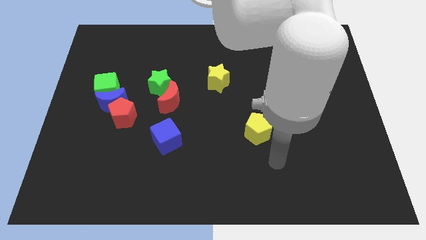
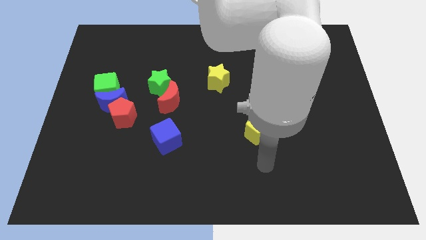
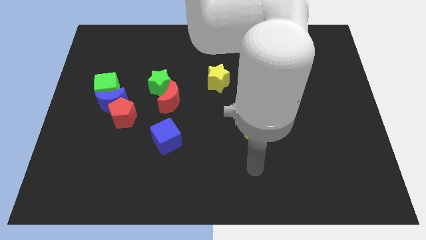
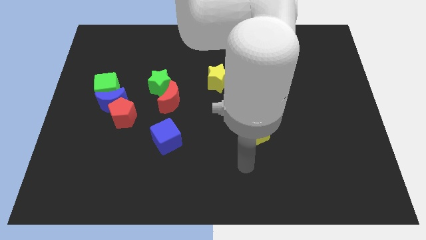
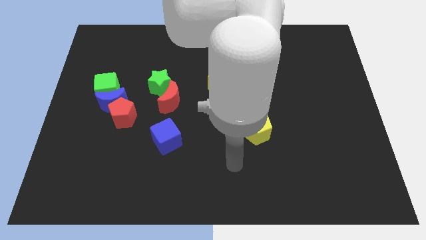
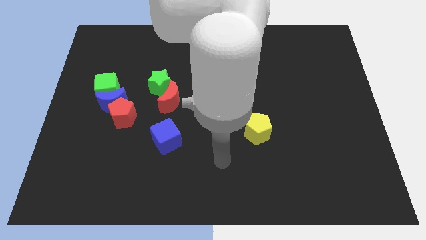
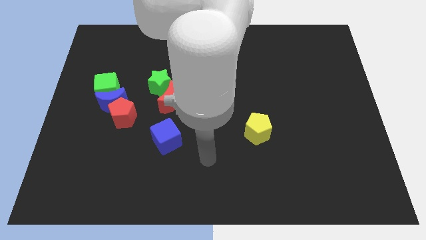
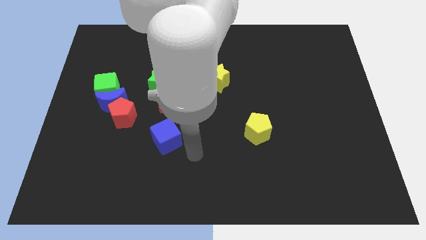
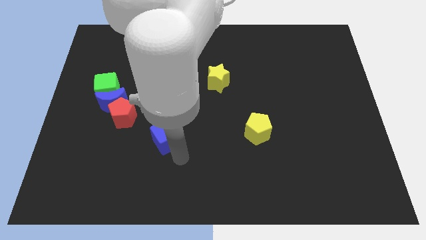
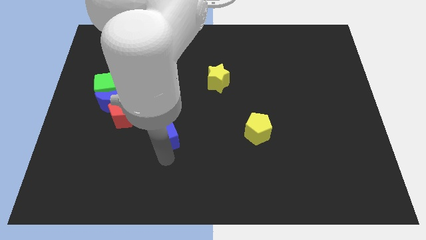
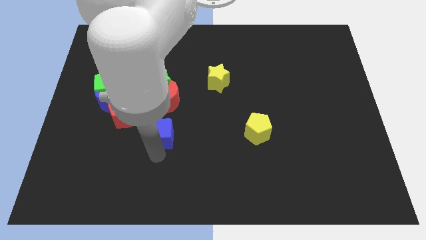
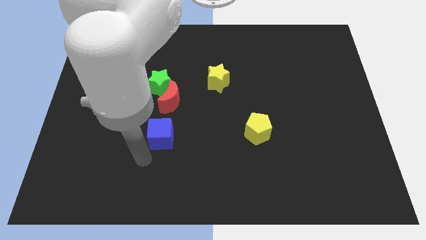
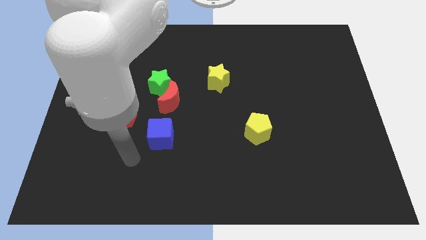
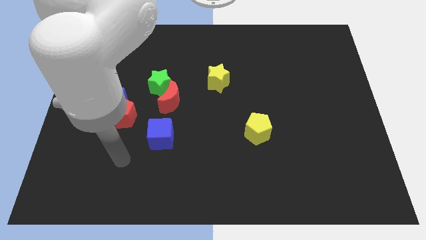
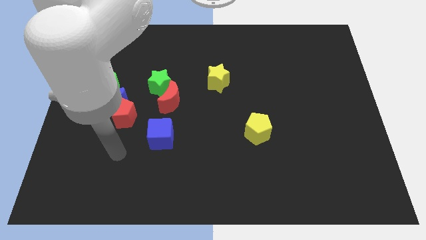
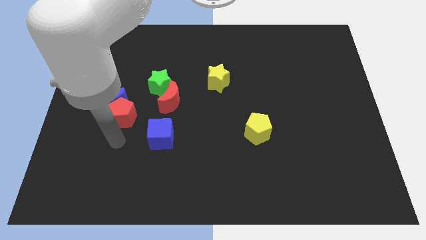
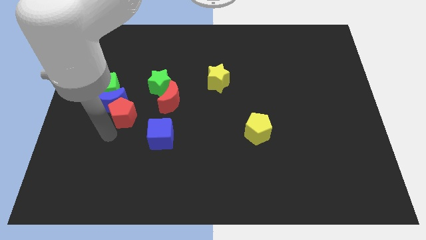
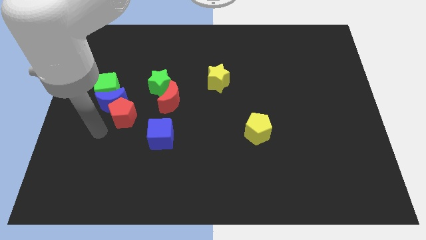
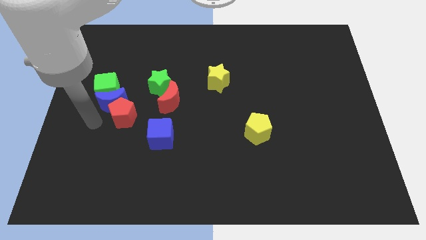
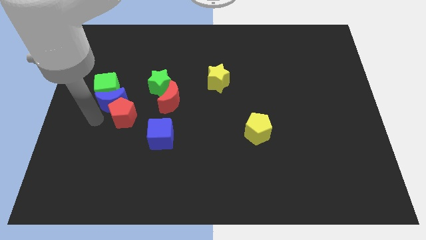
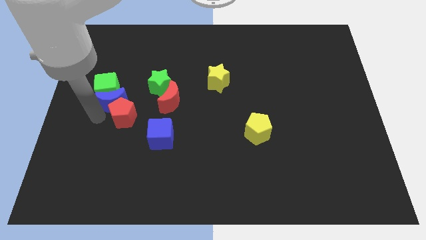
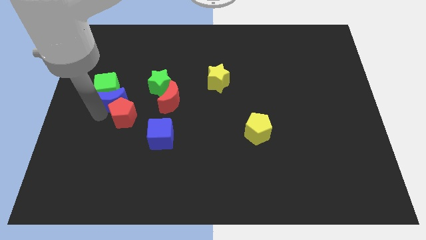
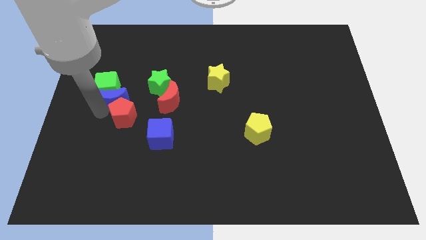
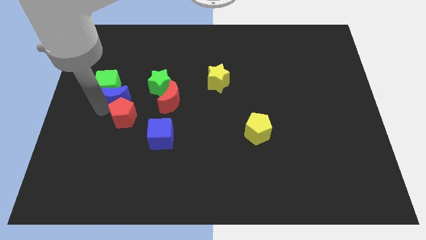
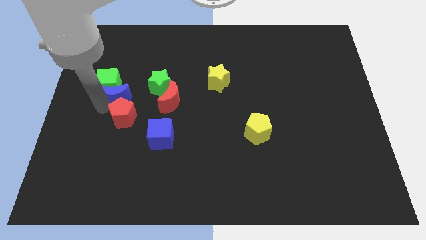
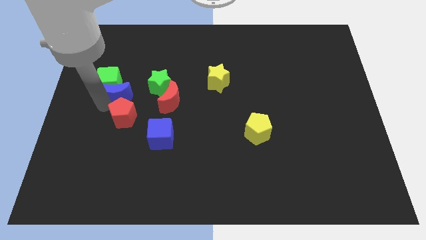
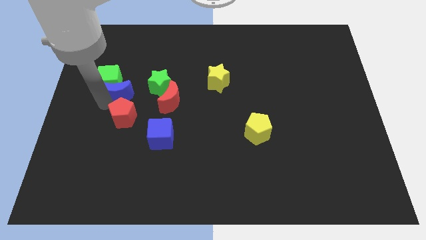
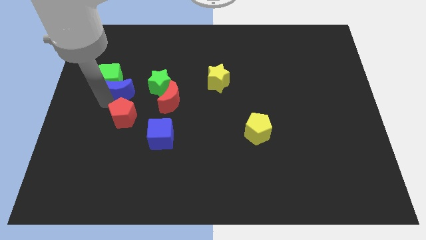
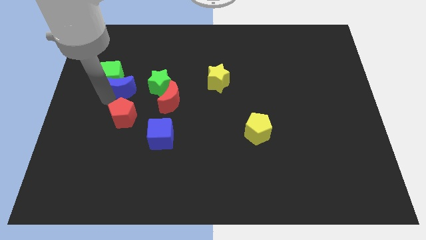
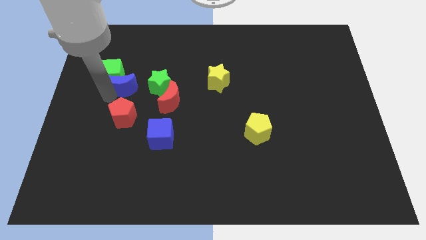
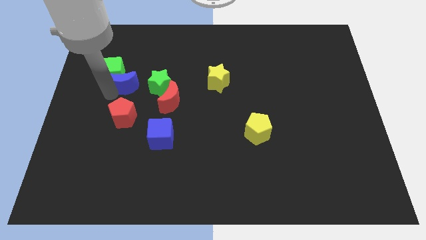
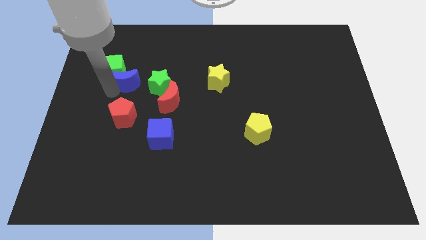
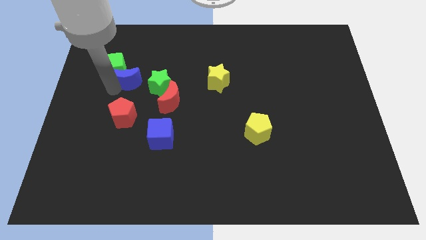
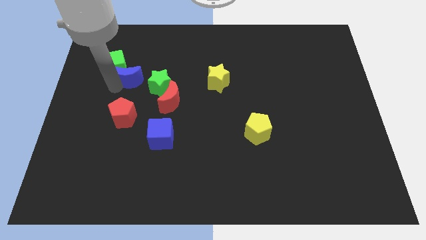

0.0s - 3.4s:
move the blue moon slightly upwards and then to the right

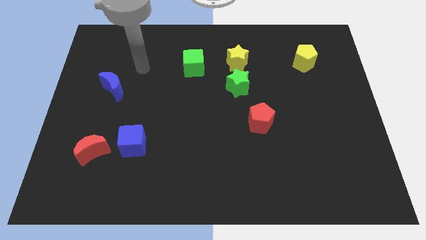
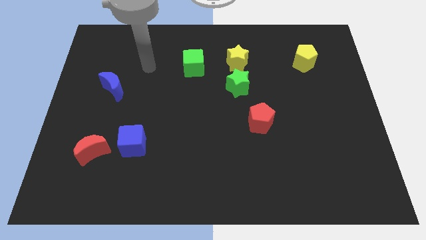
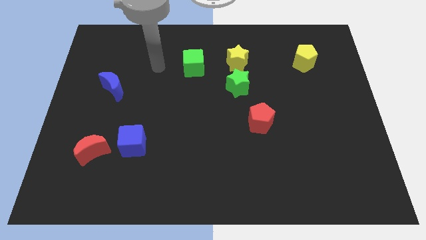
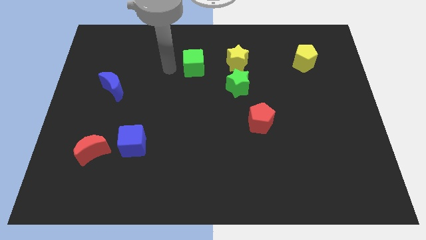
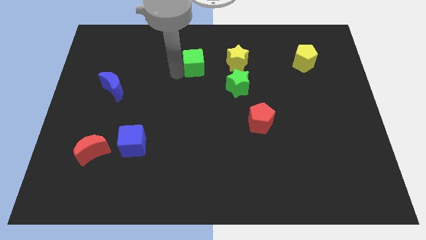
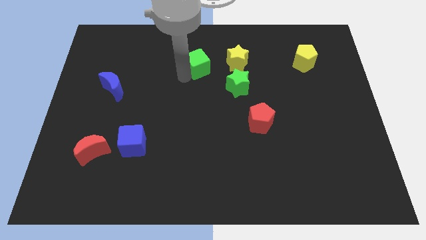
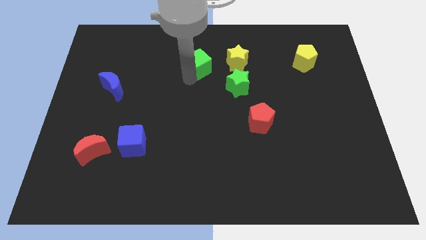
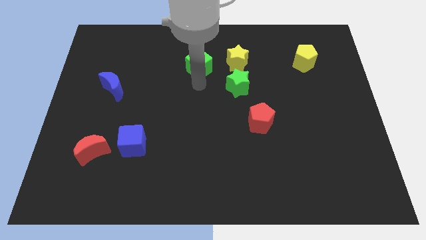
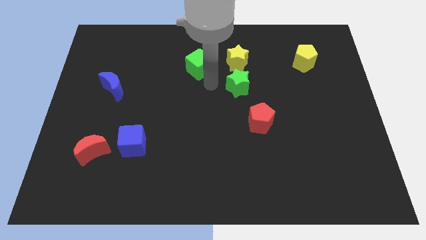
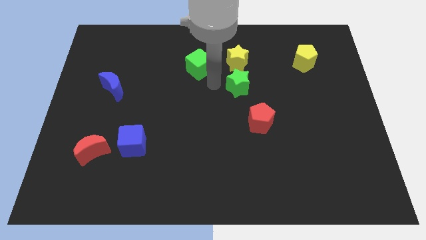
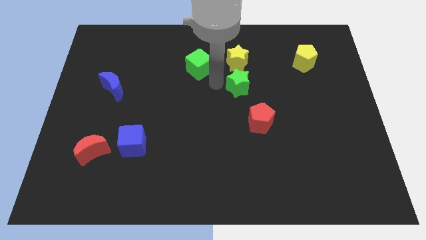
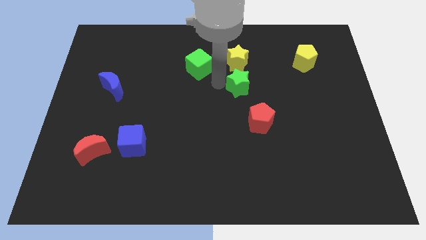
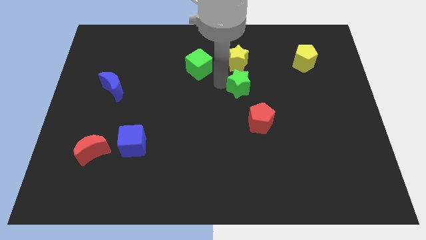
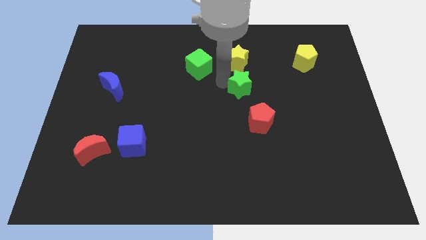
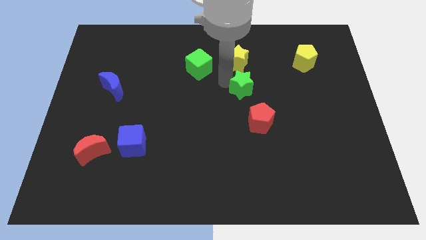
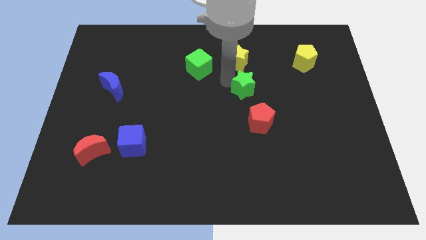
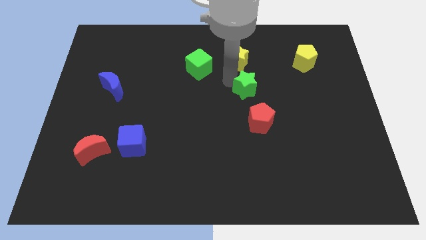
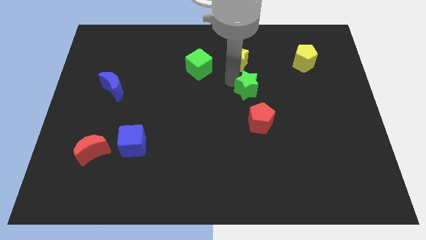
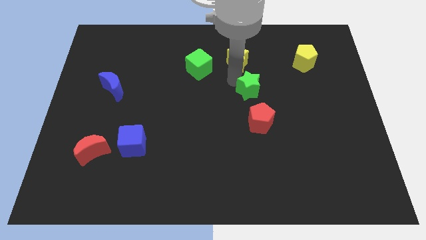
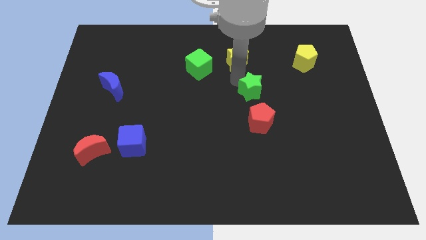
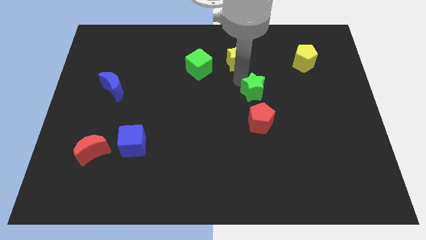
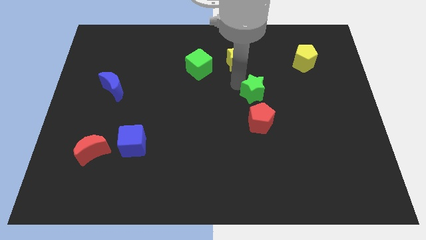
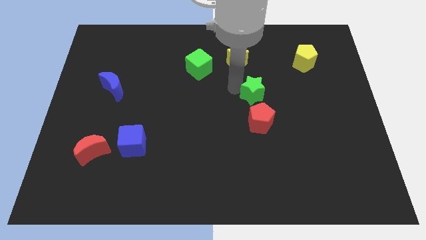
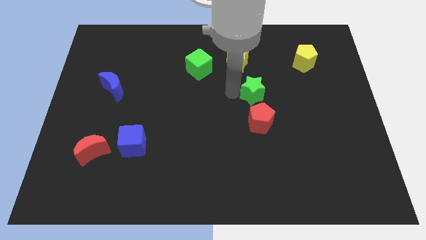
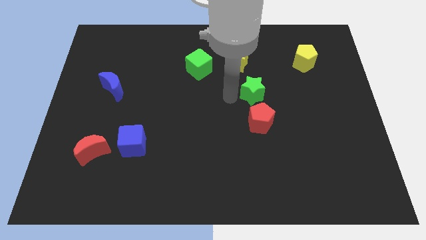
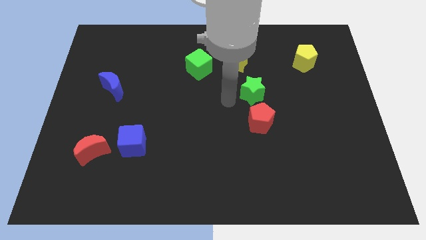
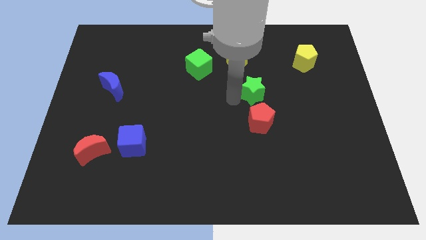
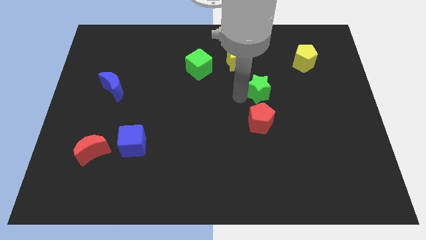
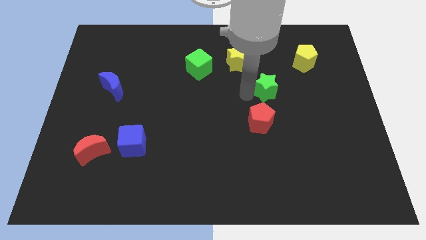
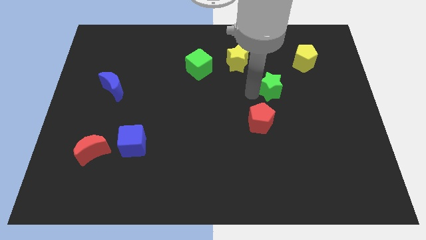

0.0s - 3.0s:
slightly slide the green star to the right

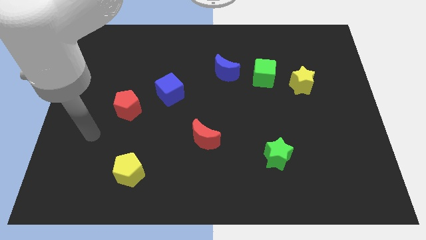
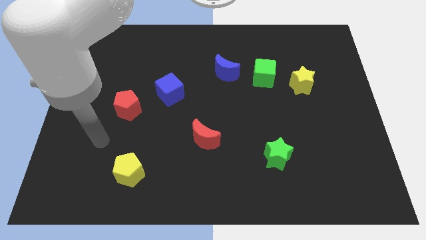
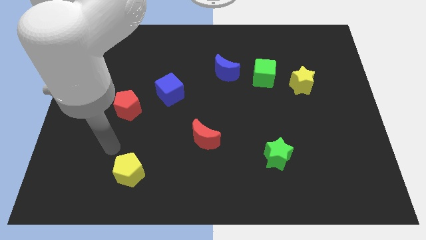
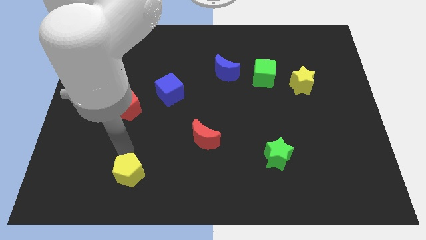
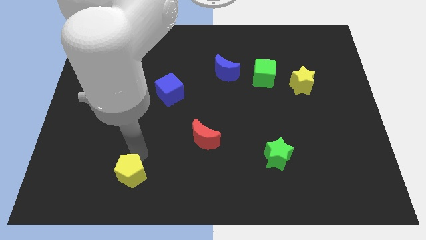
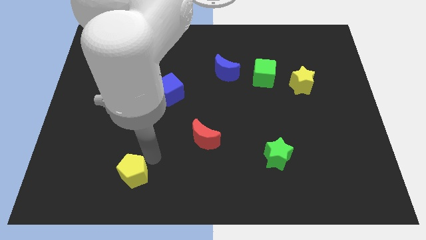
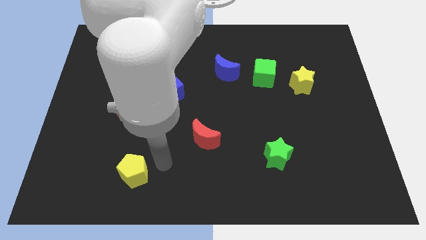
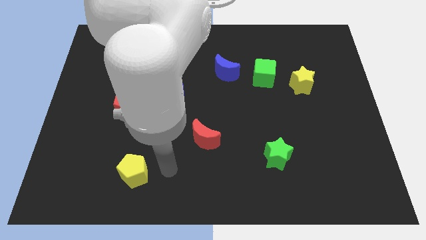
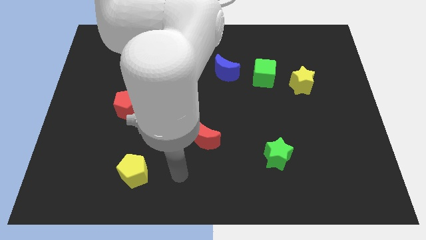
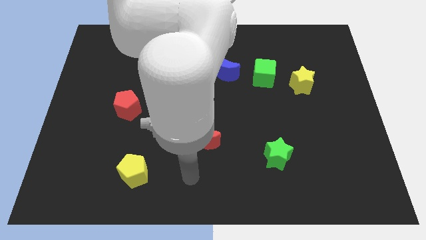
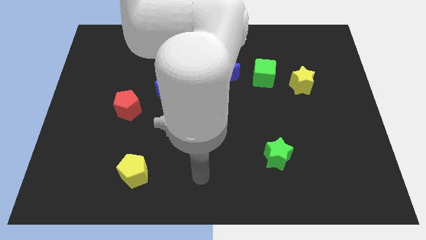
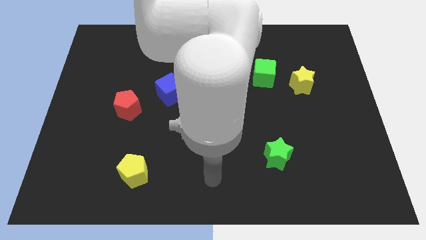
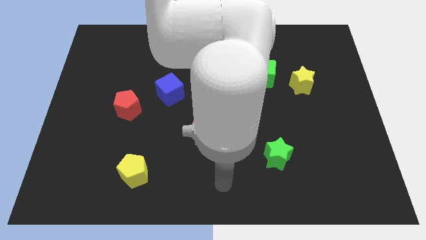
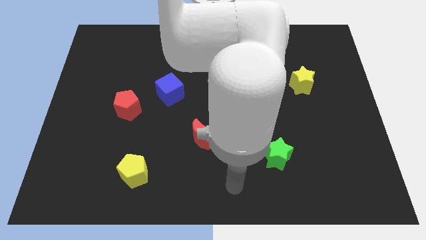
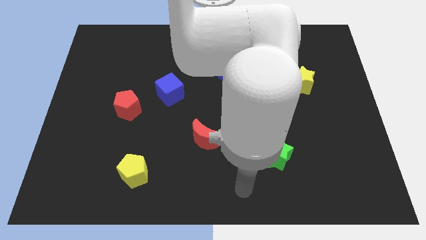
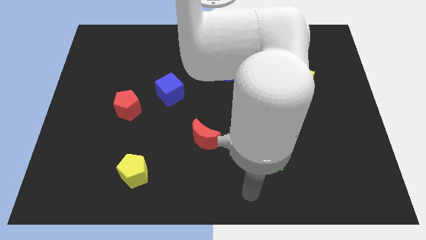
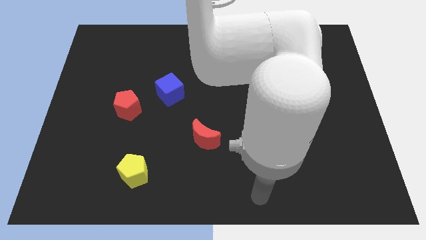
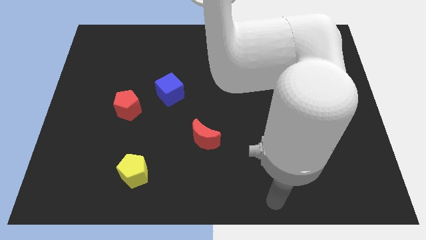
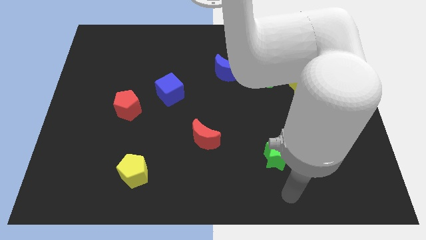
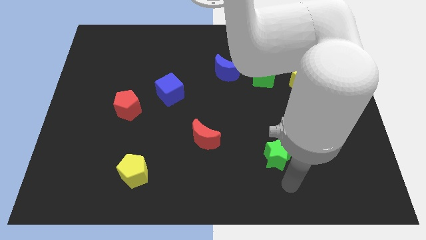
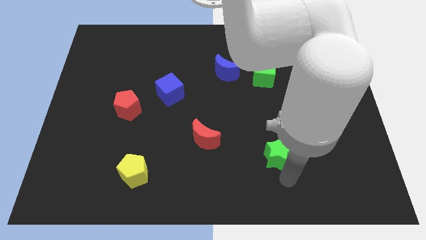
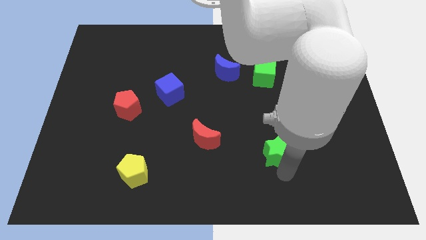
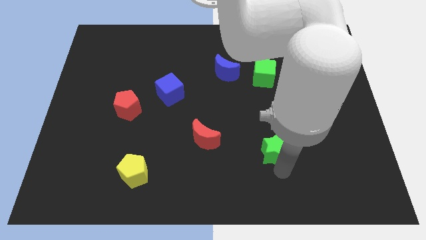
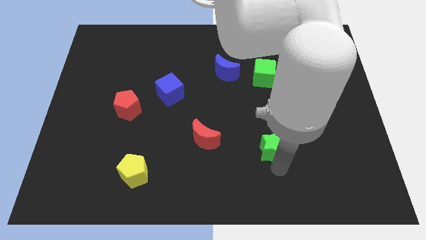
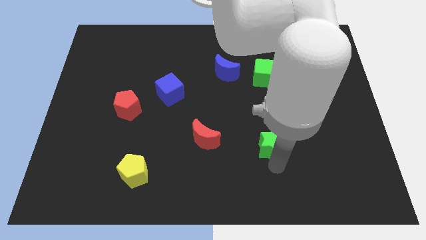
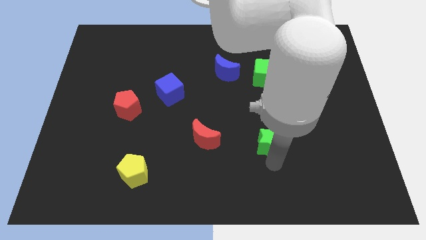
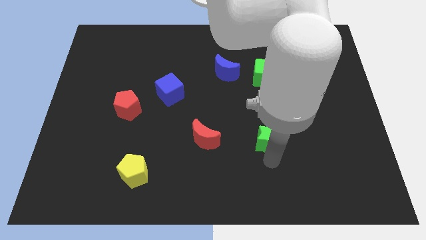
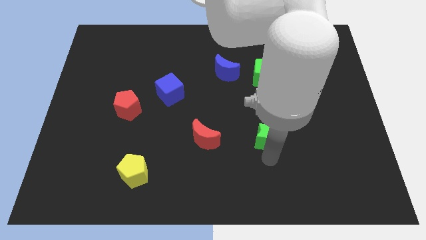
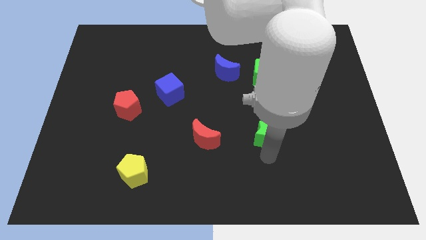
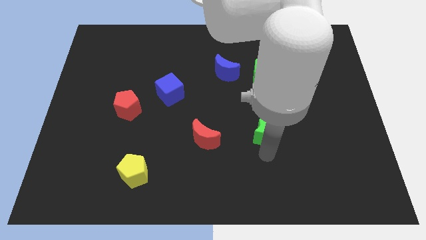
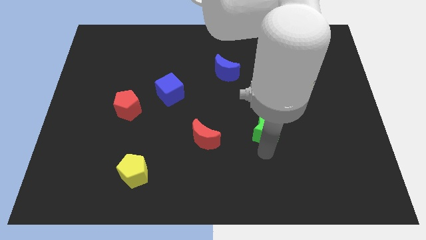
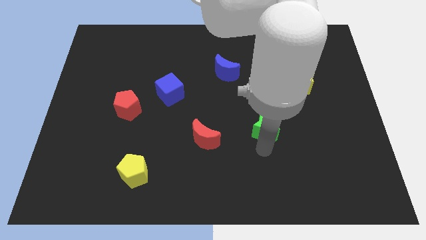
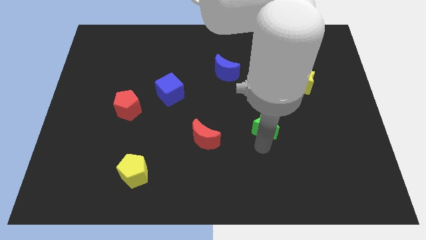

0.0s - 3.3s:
slightly push the green star upwards
